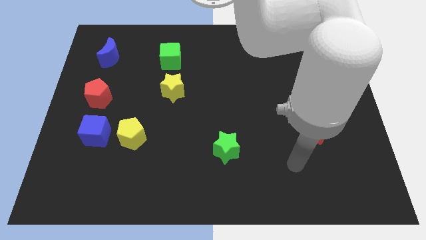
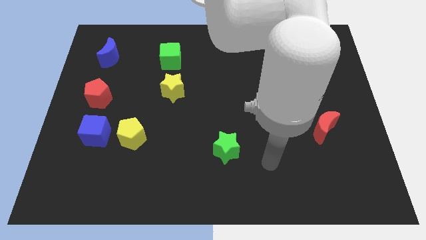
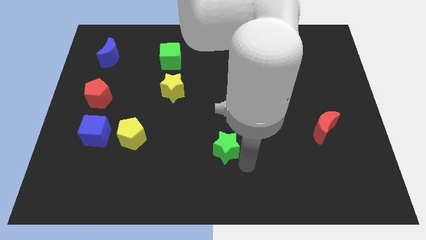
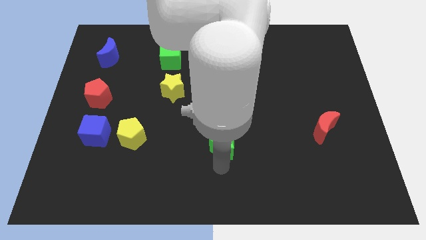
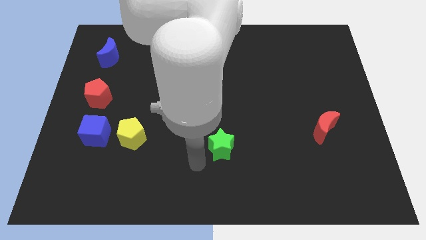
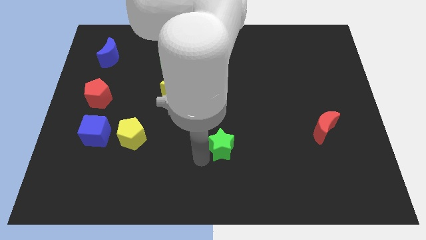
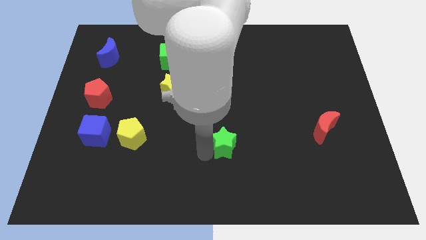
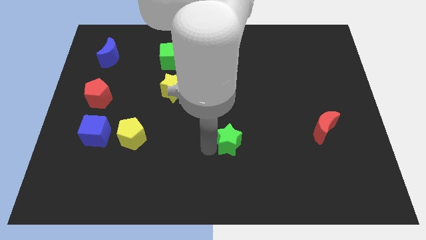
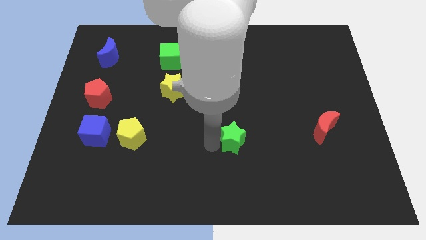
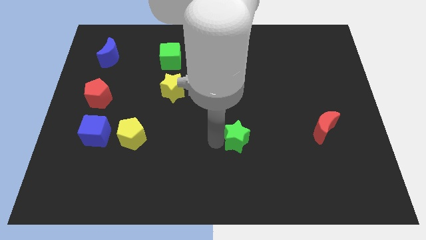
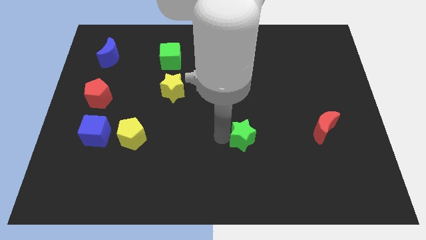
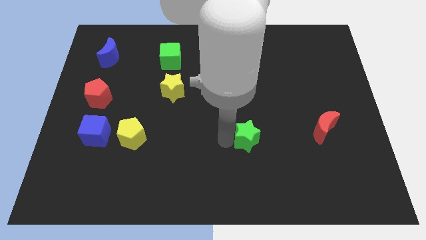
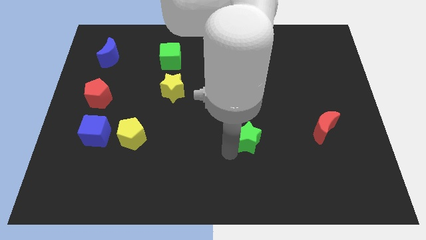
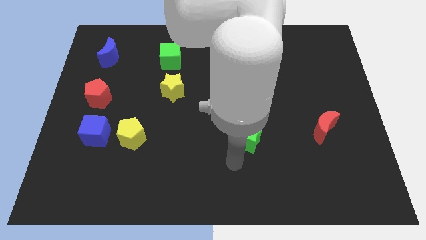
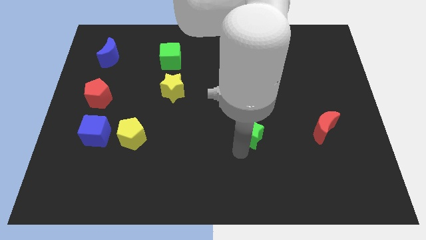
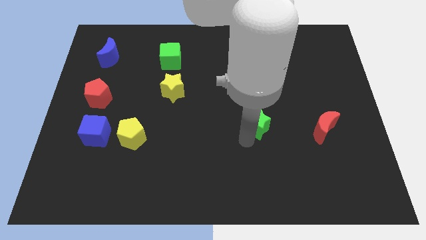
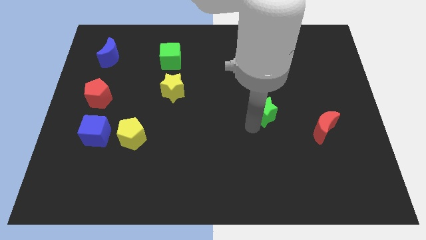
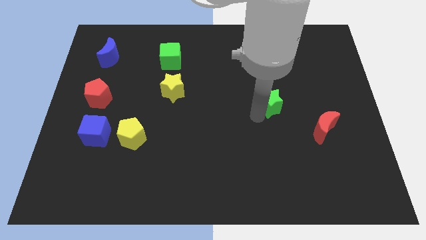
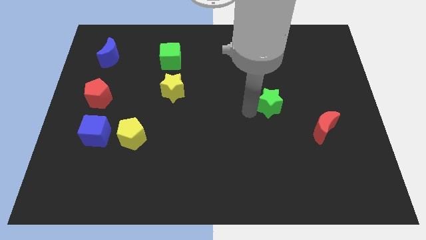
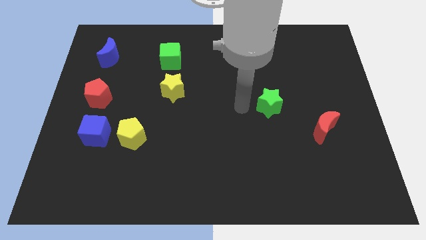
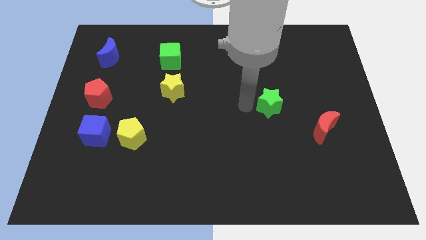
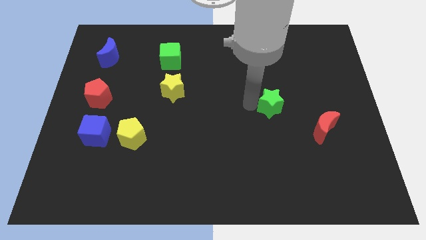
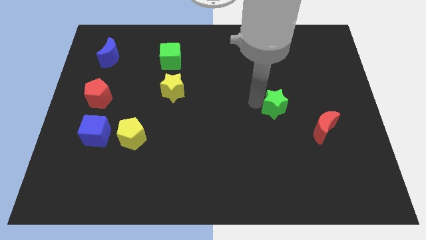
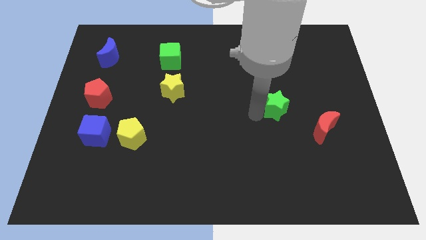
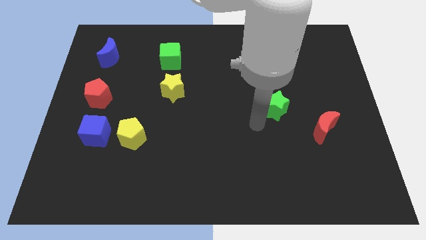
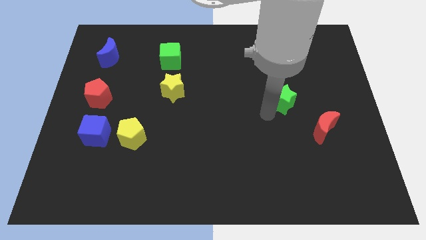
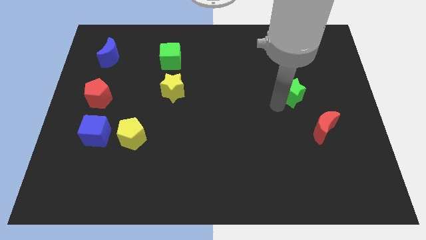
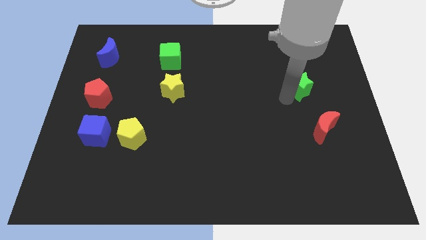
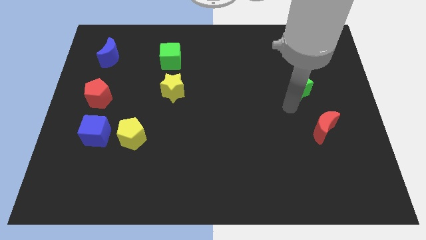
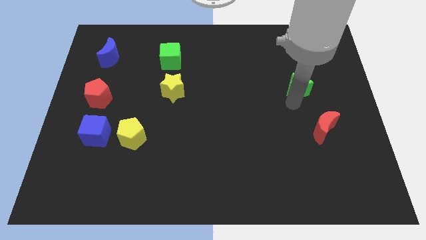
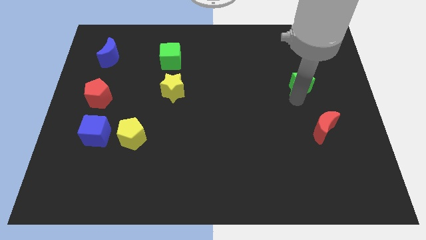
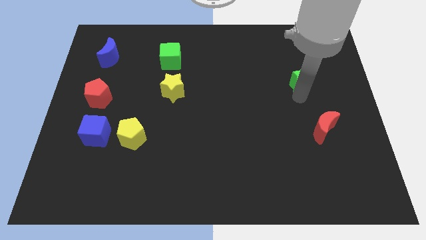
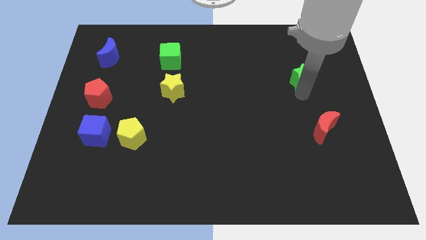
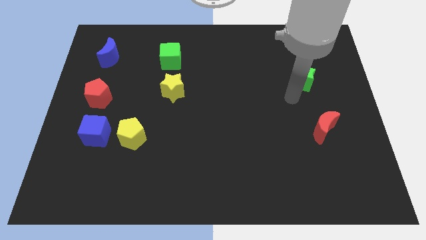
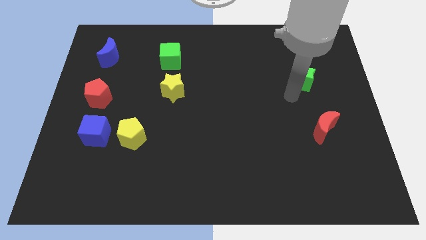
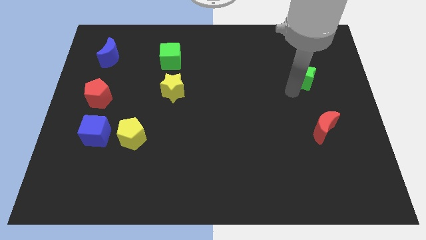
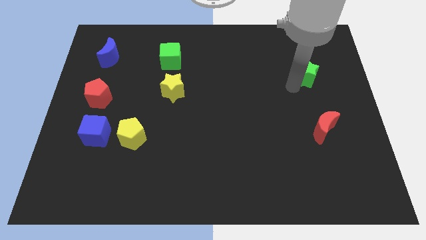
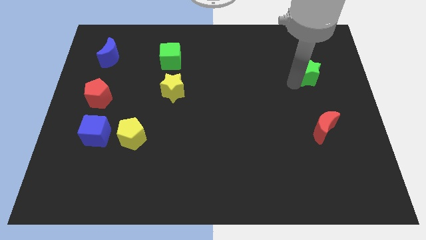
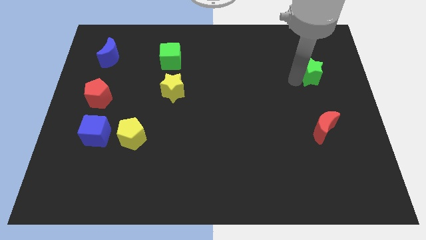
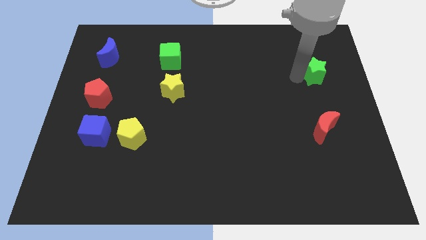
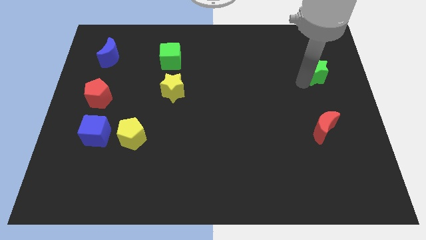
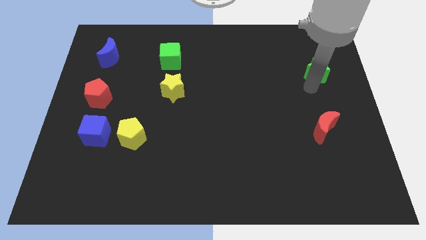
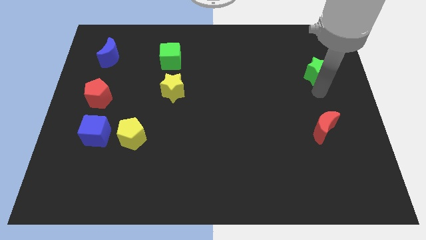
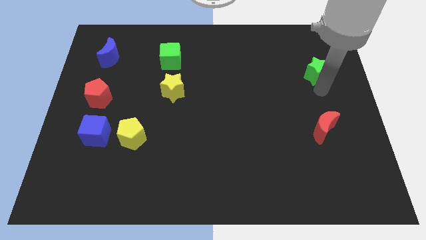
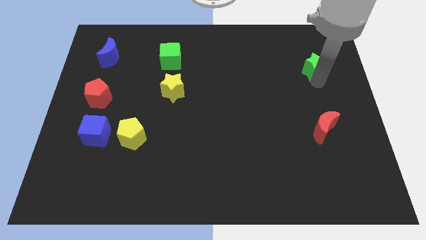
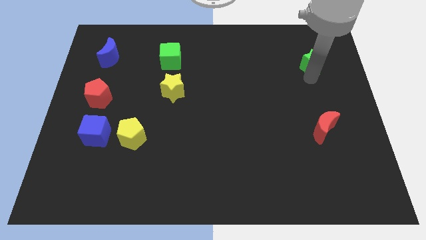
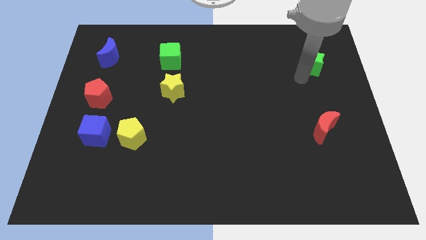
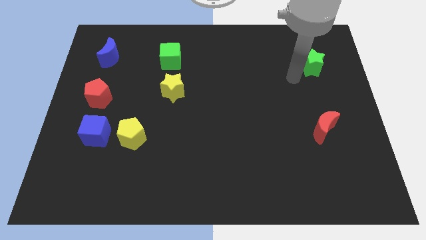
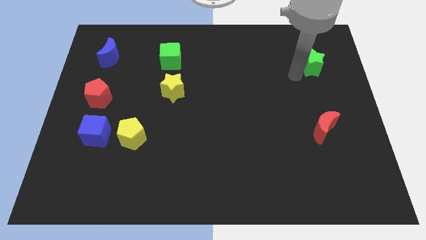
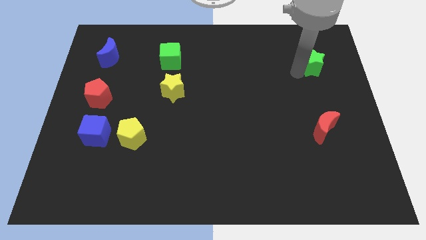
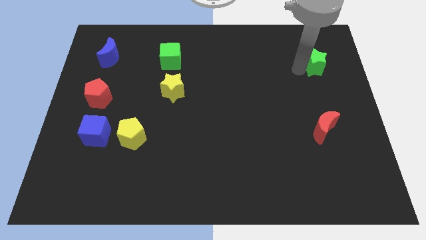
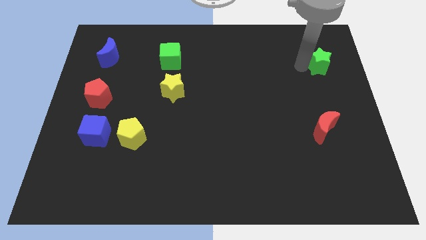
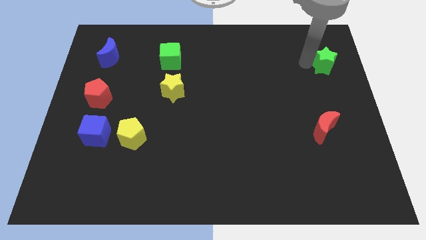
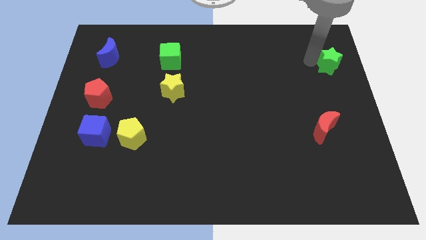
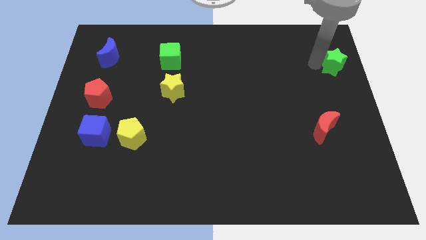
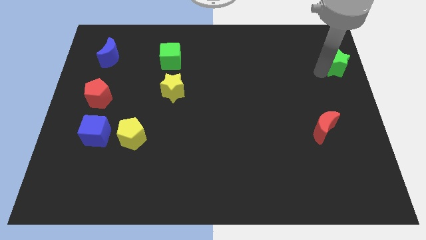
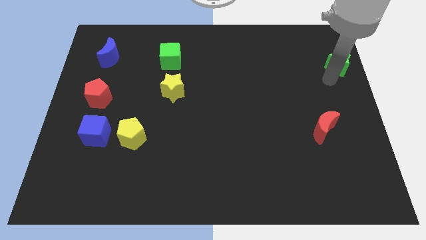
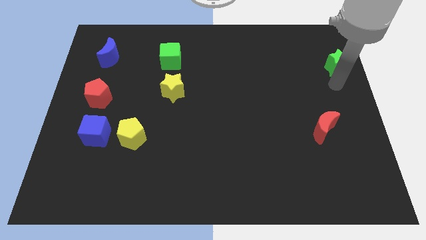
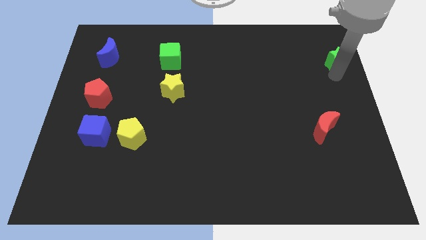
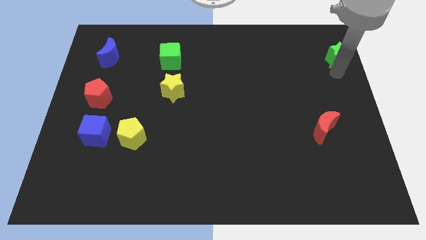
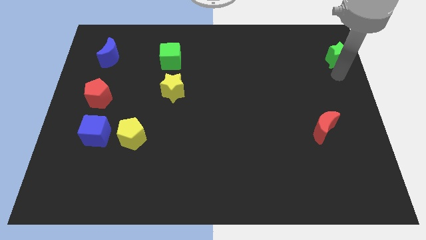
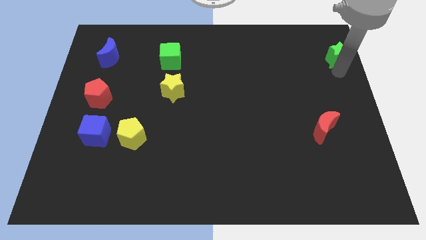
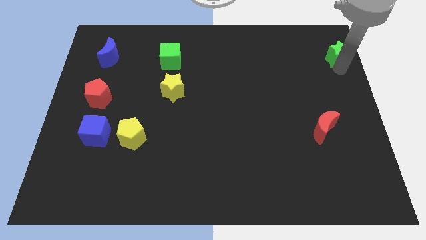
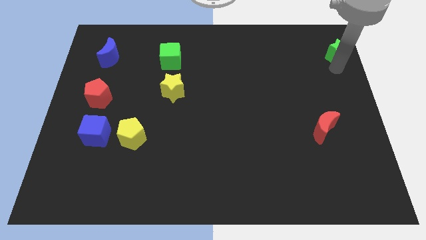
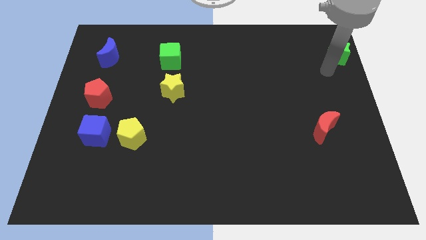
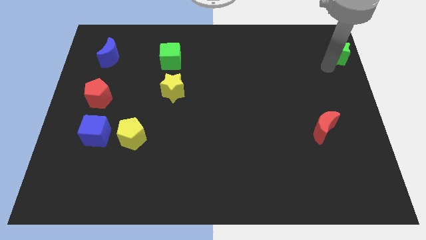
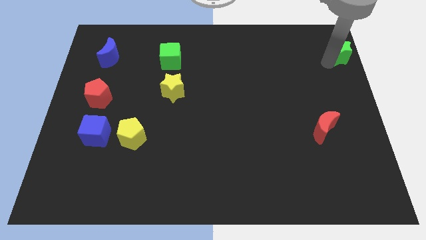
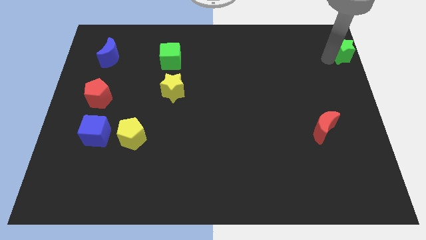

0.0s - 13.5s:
move the green star to the top right corner
